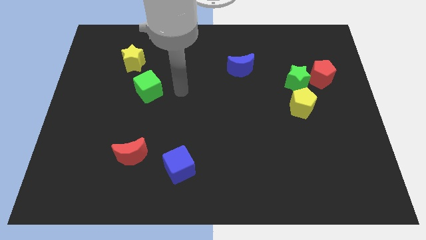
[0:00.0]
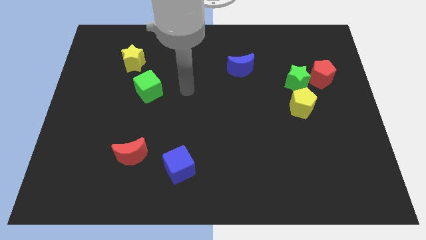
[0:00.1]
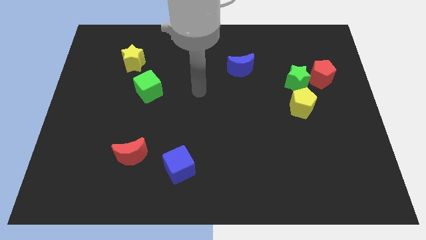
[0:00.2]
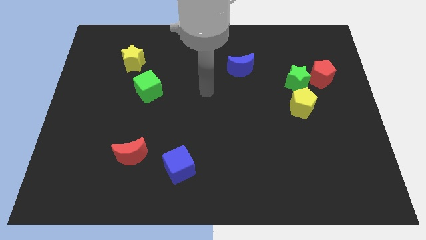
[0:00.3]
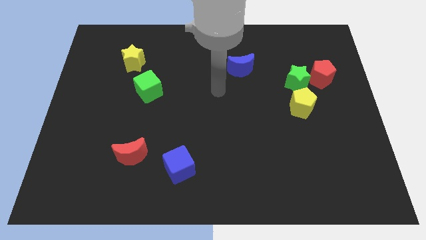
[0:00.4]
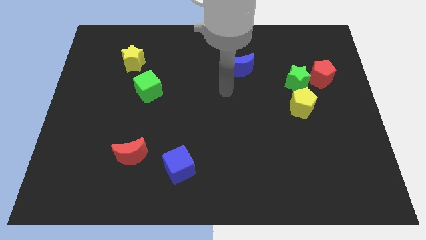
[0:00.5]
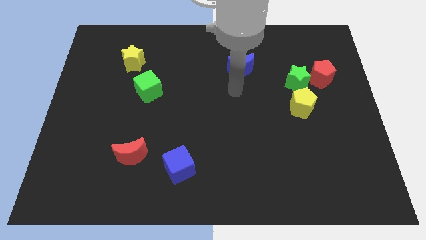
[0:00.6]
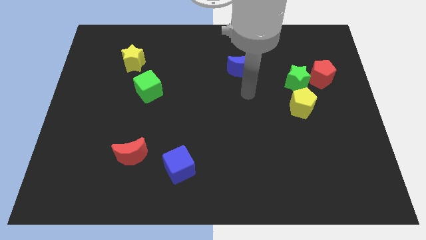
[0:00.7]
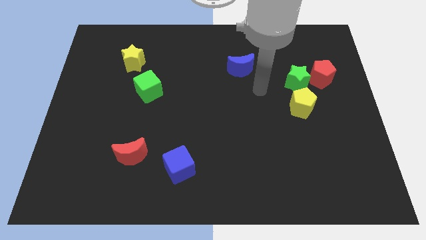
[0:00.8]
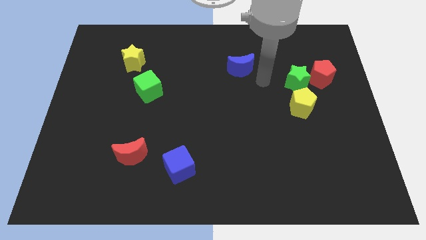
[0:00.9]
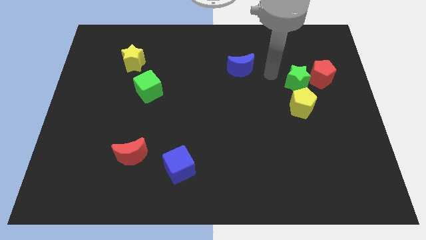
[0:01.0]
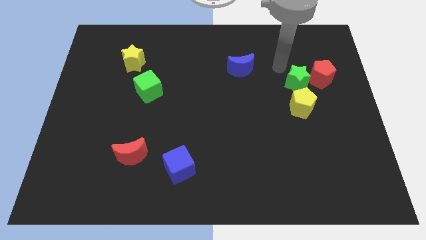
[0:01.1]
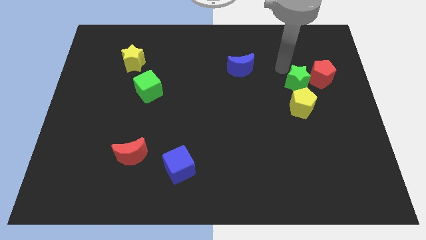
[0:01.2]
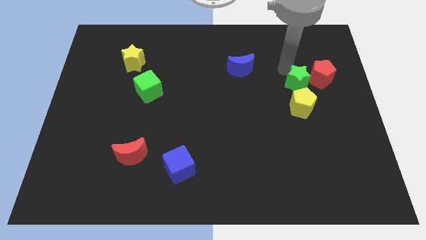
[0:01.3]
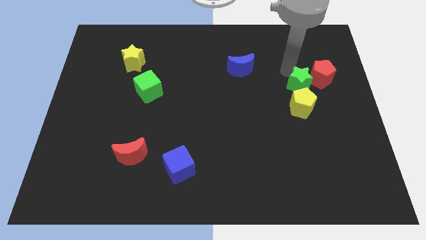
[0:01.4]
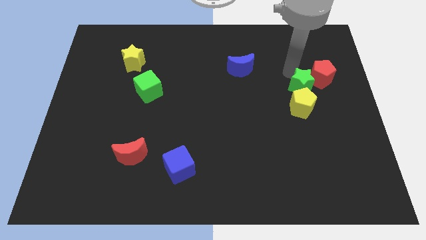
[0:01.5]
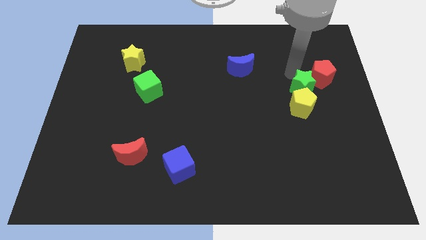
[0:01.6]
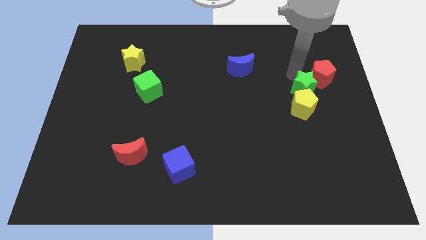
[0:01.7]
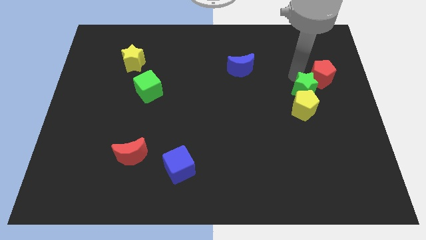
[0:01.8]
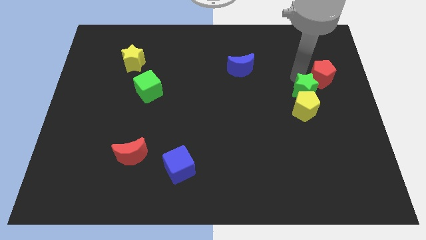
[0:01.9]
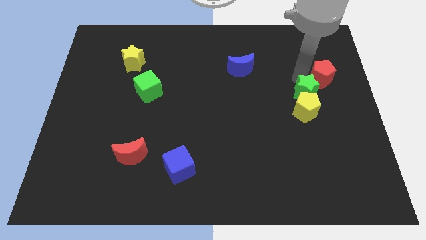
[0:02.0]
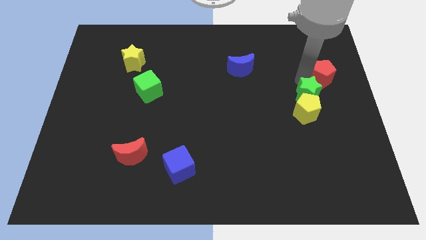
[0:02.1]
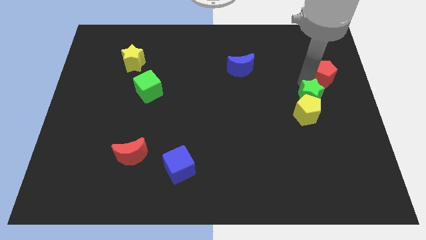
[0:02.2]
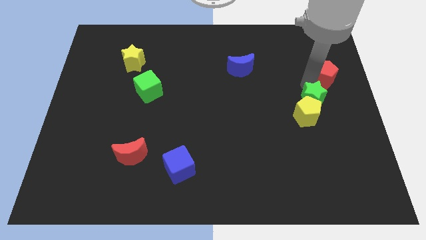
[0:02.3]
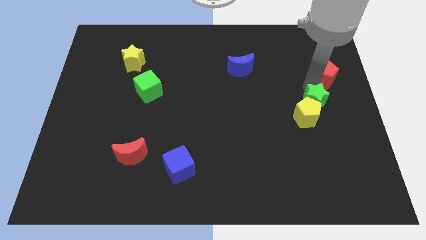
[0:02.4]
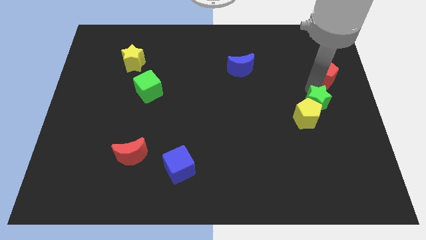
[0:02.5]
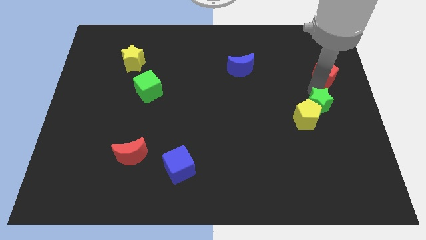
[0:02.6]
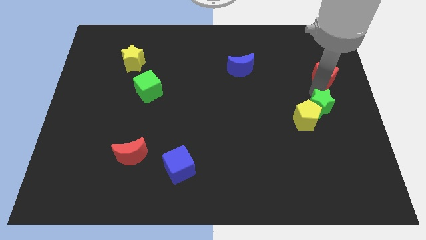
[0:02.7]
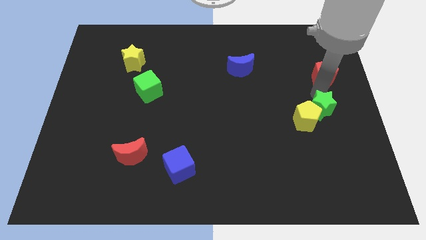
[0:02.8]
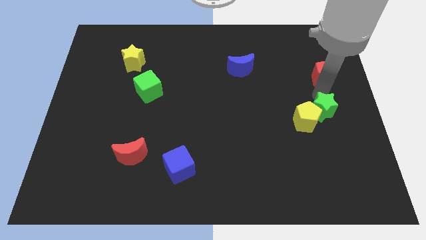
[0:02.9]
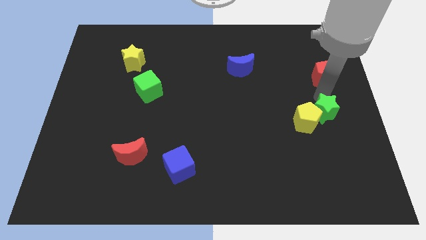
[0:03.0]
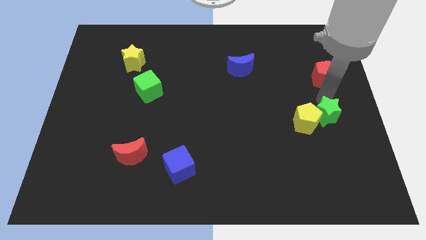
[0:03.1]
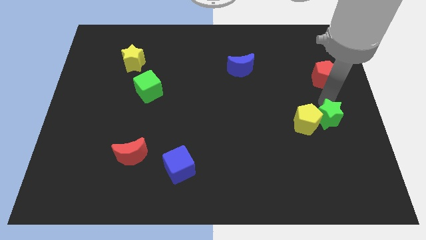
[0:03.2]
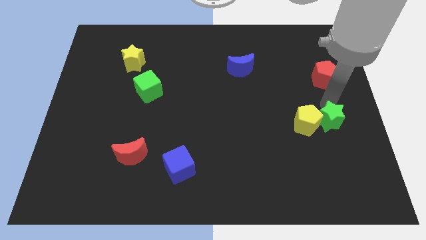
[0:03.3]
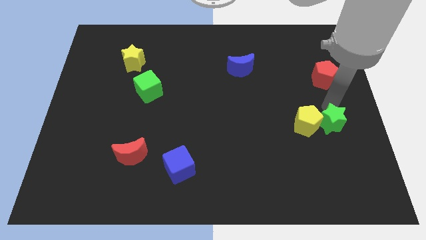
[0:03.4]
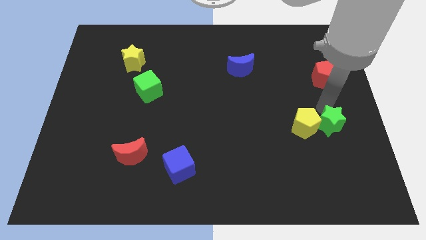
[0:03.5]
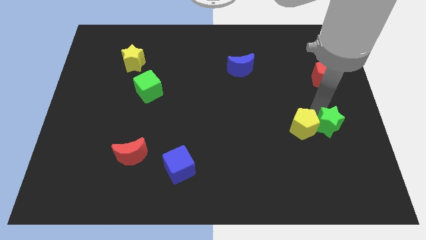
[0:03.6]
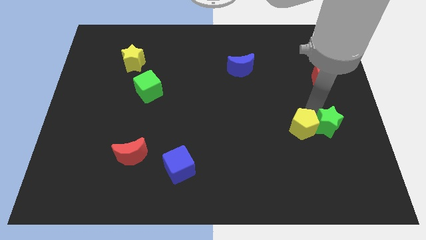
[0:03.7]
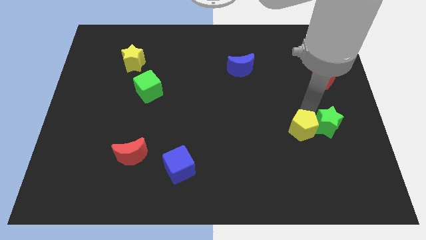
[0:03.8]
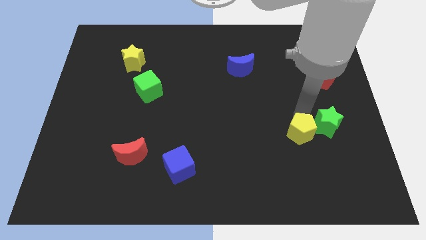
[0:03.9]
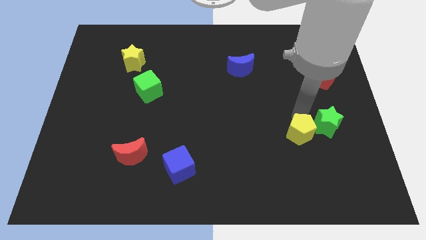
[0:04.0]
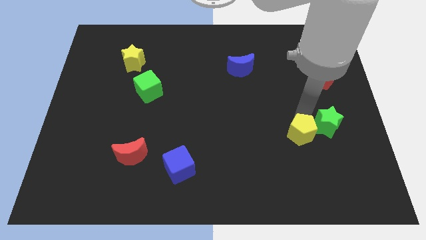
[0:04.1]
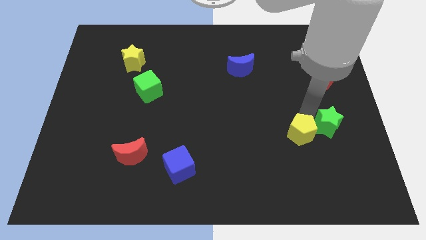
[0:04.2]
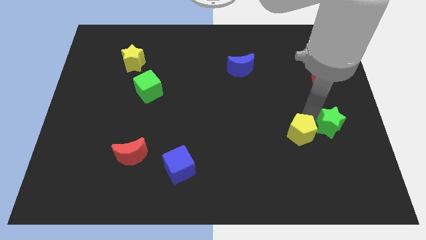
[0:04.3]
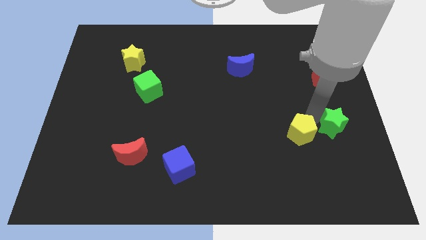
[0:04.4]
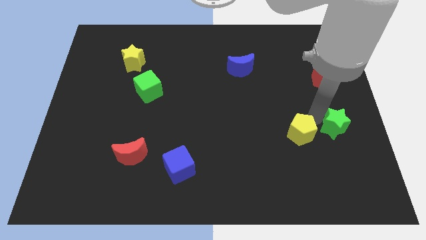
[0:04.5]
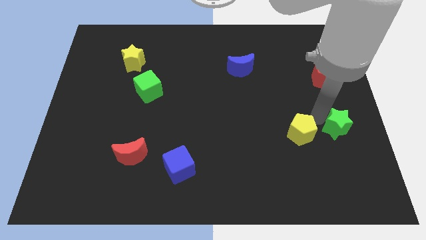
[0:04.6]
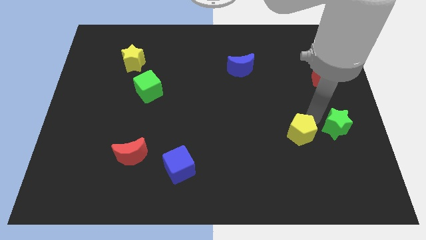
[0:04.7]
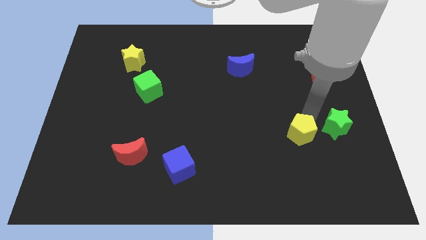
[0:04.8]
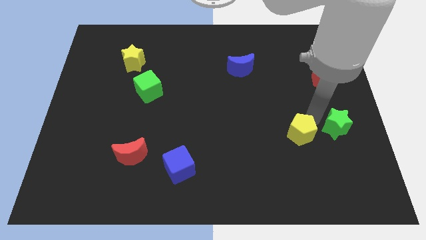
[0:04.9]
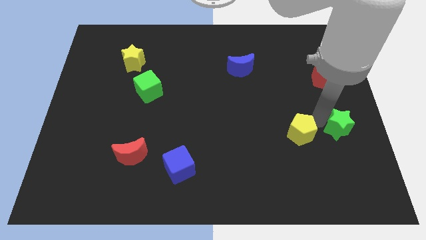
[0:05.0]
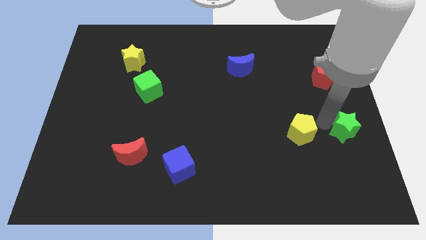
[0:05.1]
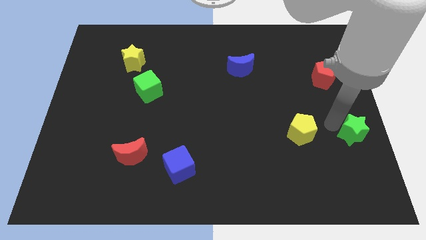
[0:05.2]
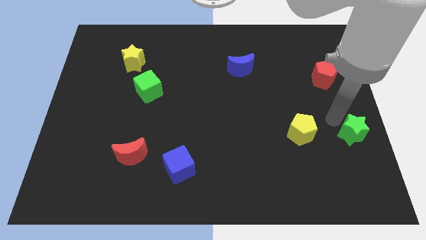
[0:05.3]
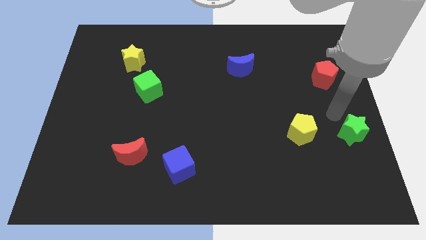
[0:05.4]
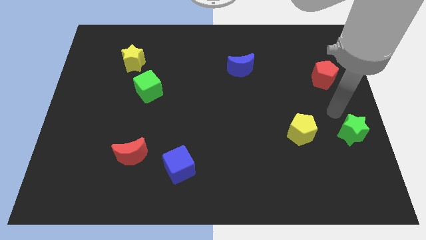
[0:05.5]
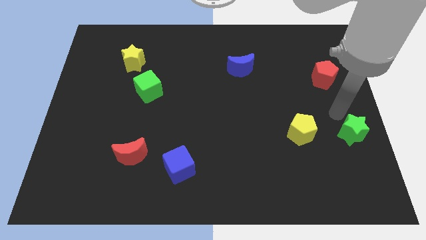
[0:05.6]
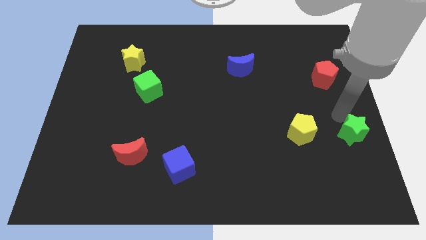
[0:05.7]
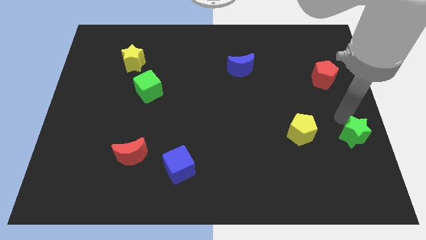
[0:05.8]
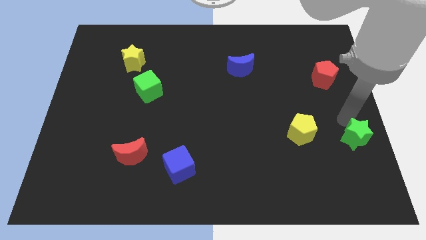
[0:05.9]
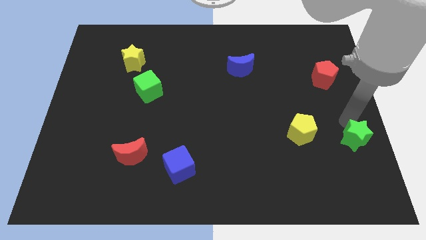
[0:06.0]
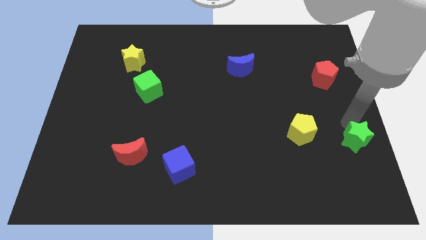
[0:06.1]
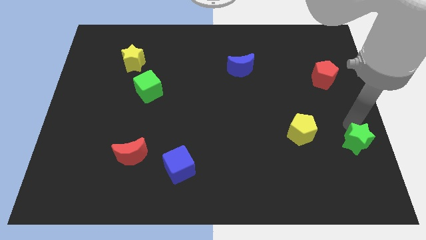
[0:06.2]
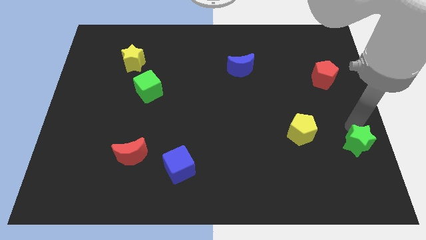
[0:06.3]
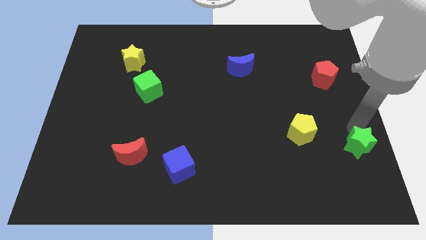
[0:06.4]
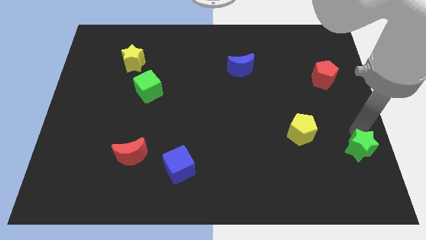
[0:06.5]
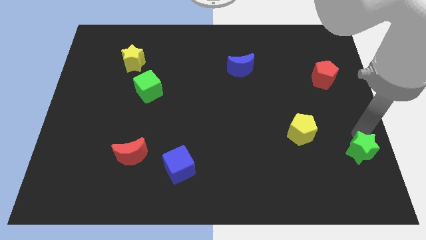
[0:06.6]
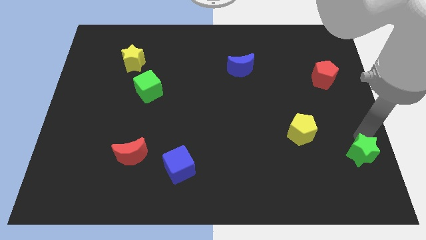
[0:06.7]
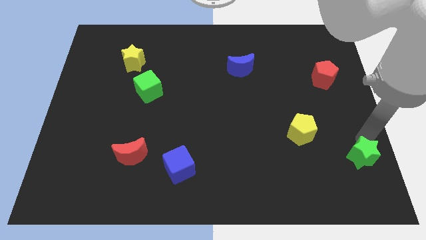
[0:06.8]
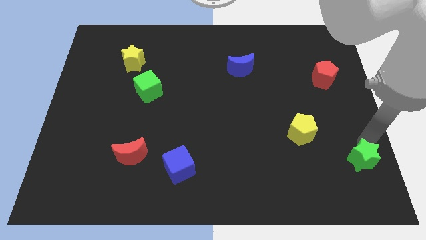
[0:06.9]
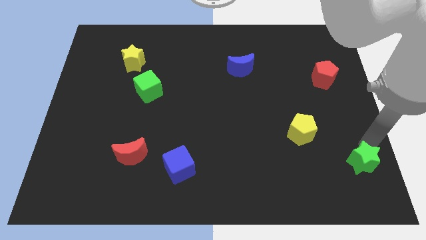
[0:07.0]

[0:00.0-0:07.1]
push the green star to the lower right corner
